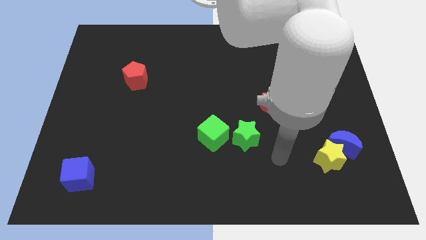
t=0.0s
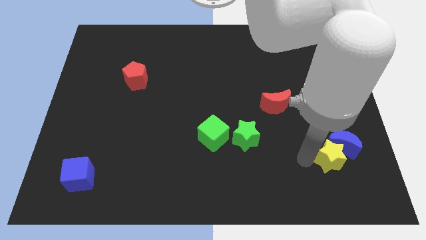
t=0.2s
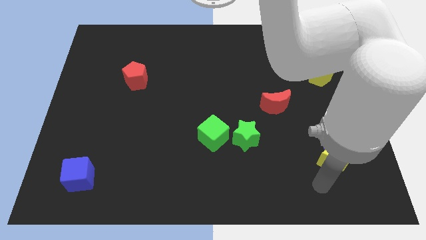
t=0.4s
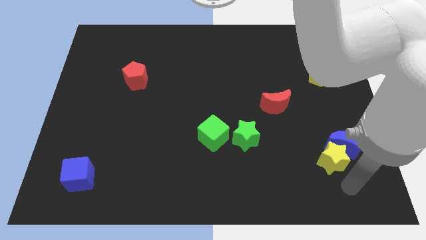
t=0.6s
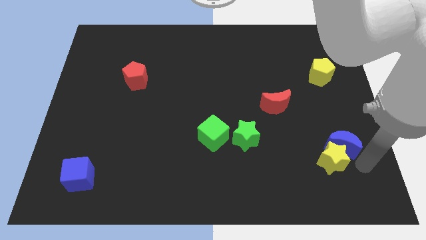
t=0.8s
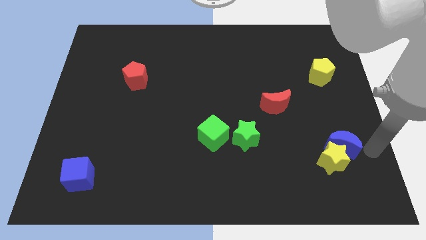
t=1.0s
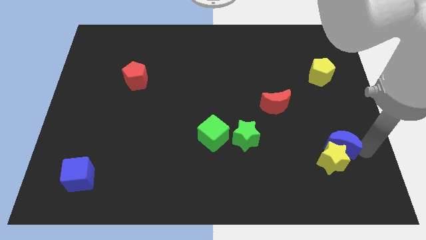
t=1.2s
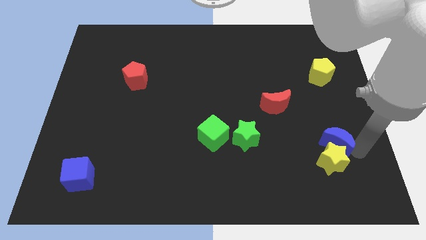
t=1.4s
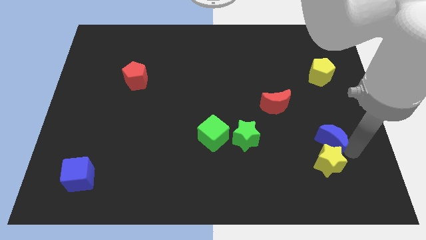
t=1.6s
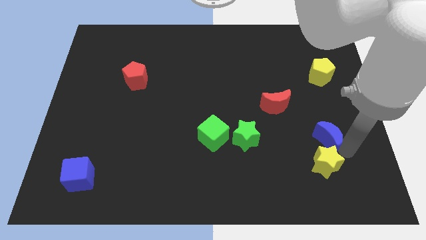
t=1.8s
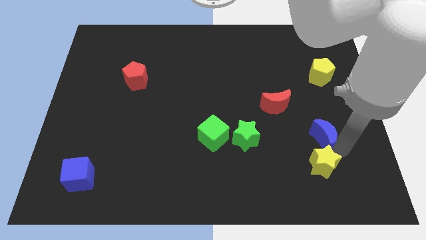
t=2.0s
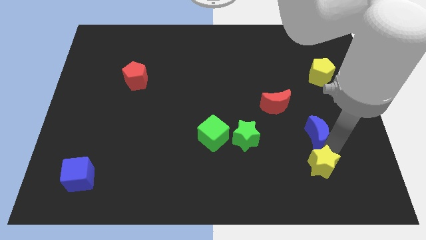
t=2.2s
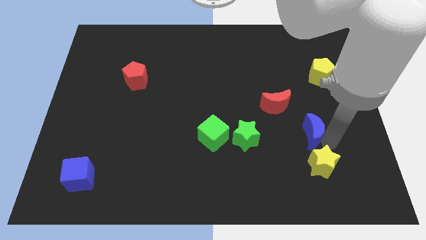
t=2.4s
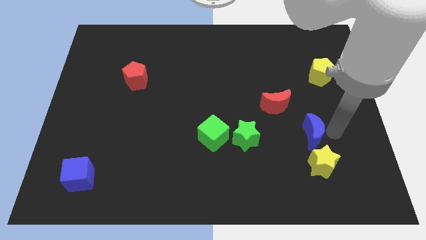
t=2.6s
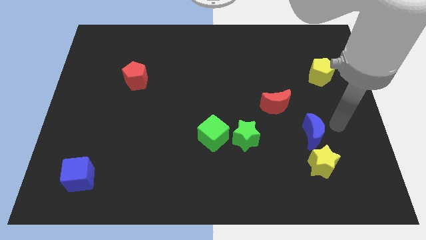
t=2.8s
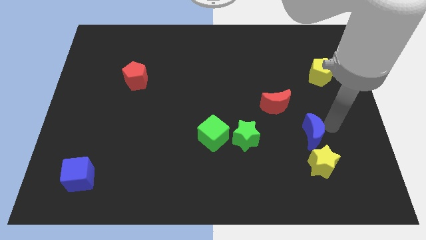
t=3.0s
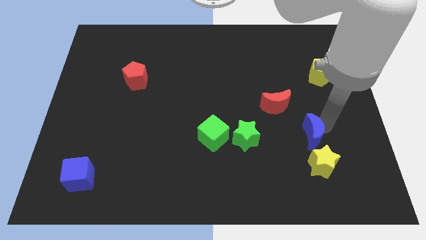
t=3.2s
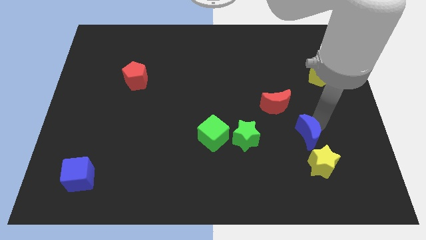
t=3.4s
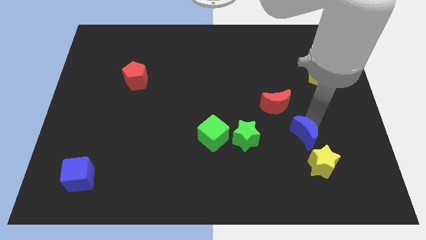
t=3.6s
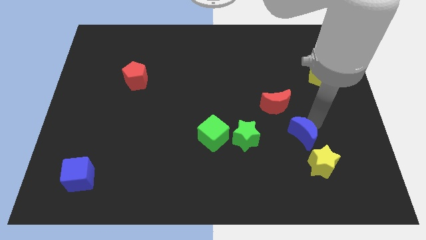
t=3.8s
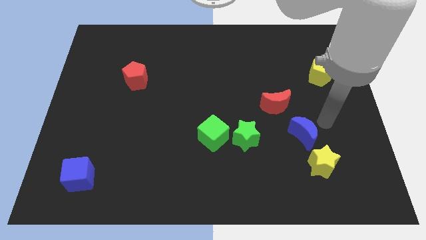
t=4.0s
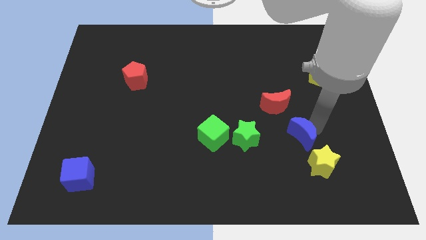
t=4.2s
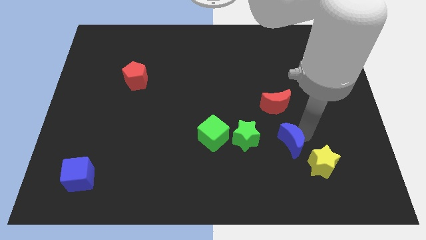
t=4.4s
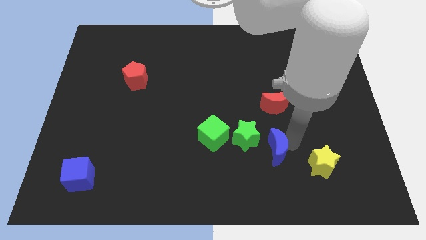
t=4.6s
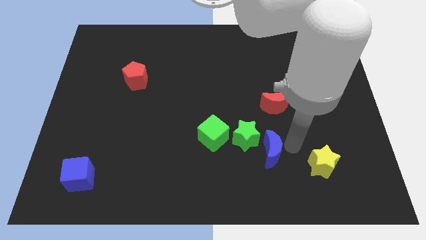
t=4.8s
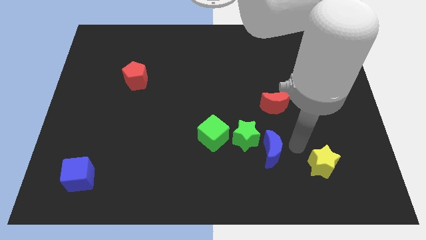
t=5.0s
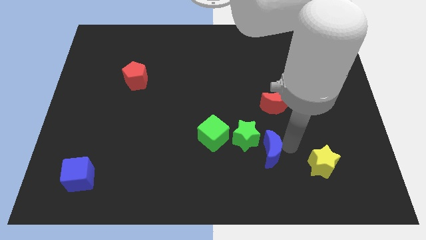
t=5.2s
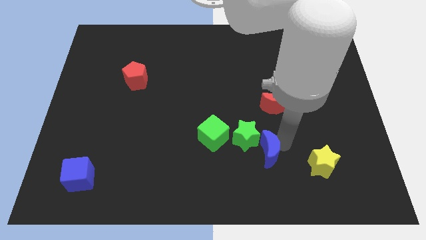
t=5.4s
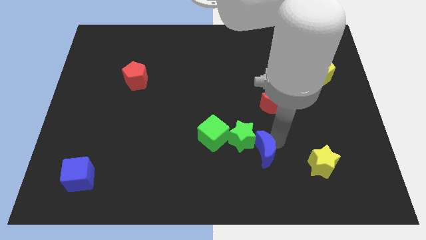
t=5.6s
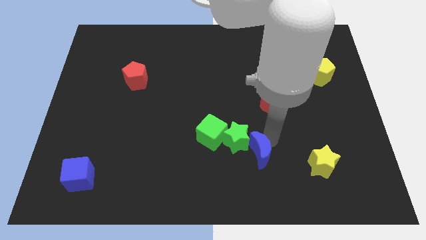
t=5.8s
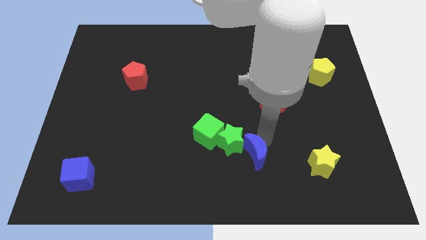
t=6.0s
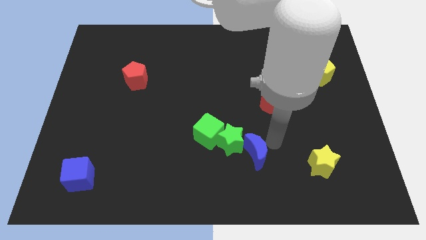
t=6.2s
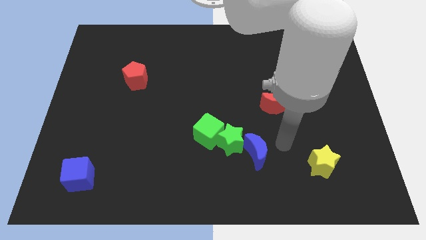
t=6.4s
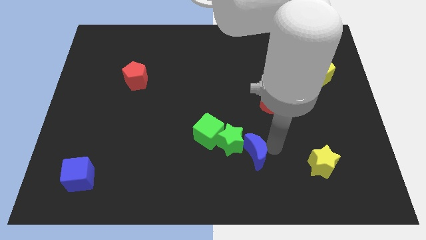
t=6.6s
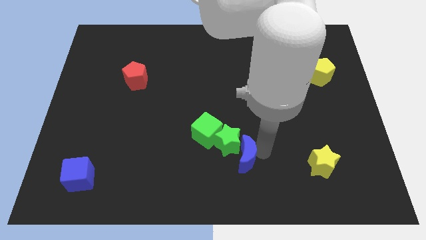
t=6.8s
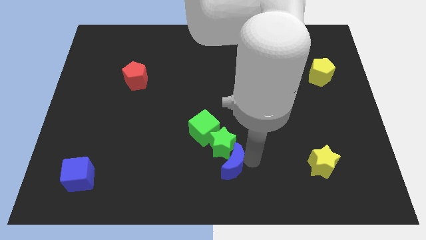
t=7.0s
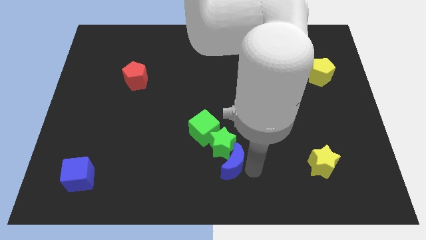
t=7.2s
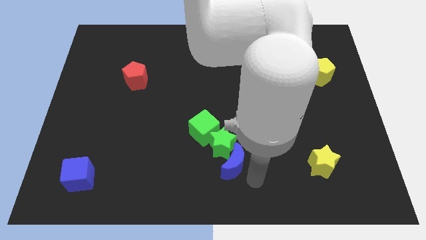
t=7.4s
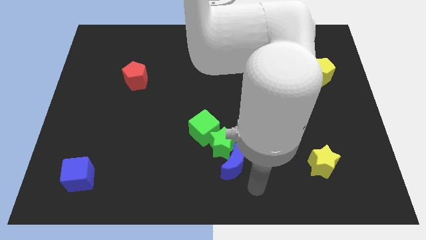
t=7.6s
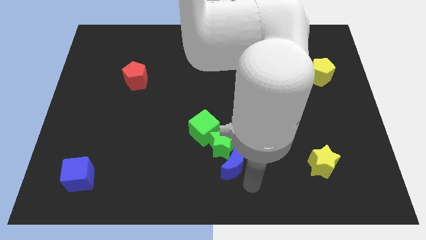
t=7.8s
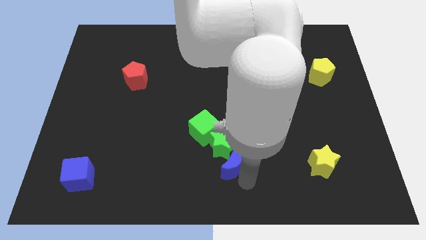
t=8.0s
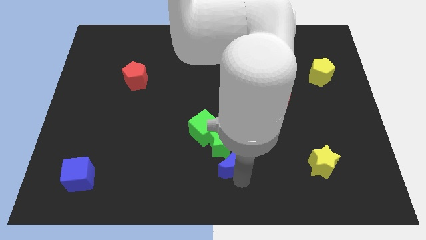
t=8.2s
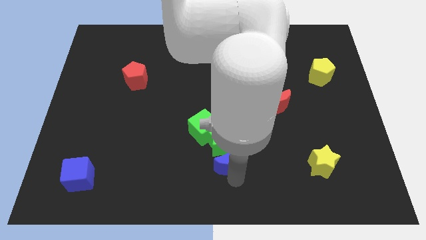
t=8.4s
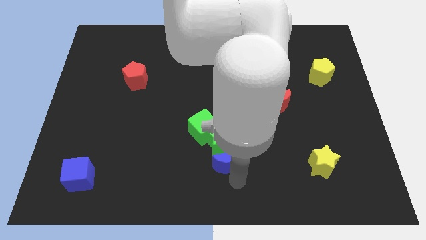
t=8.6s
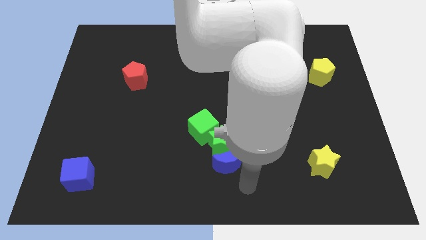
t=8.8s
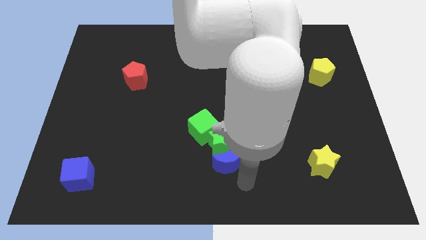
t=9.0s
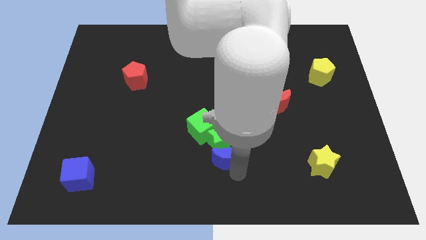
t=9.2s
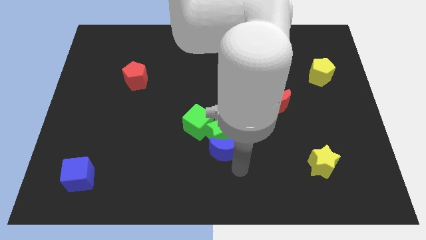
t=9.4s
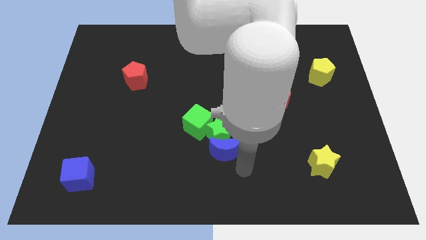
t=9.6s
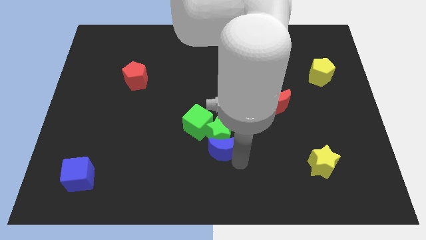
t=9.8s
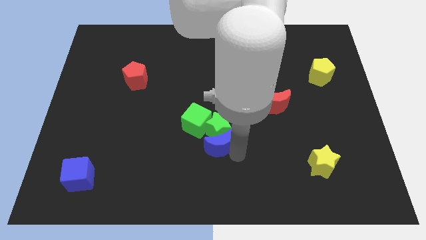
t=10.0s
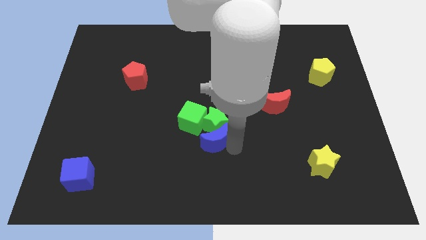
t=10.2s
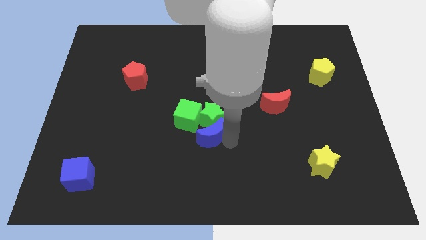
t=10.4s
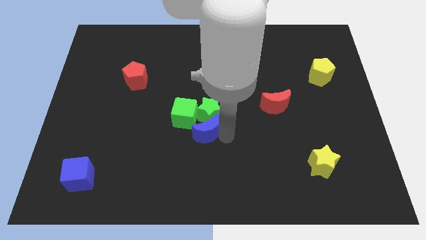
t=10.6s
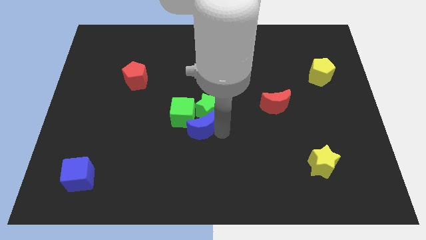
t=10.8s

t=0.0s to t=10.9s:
slide the blue moon towards the green cube

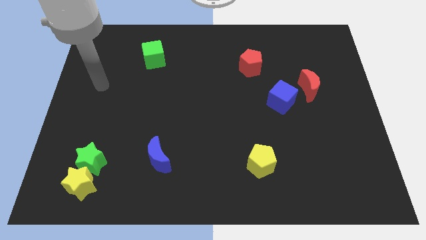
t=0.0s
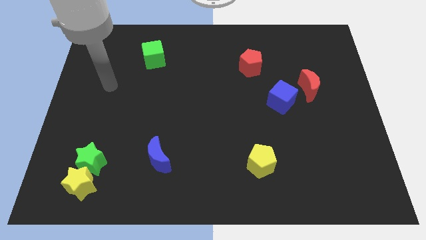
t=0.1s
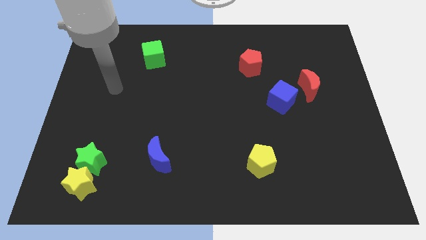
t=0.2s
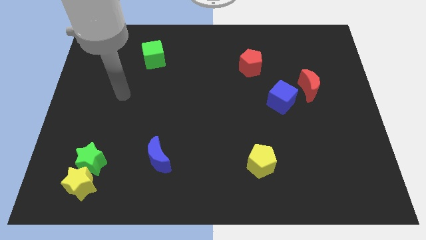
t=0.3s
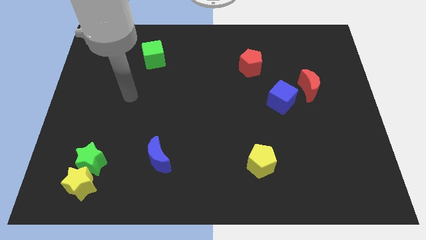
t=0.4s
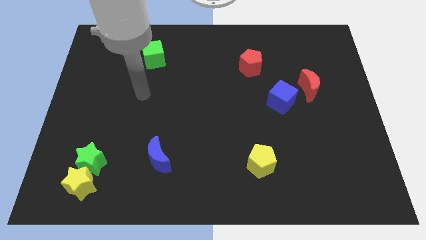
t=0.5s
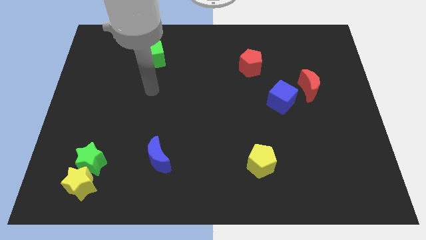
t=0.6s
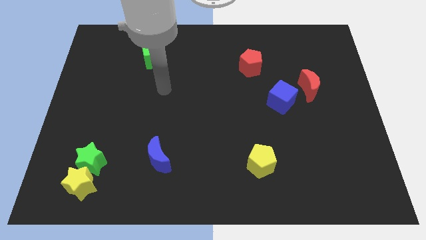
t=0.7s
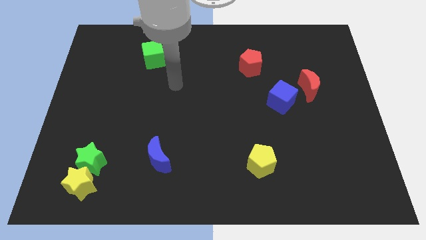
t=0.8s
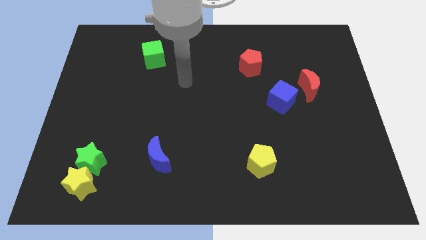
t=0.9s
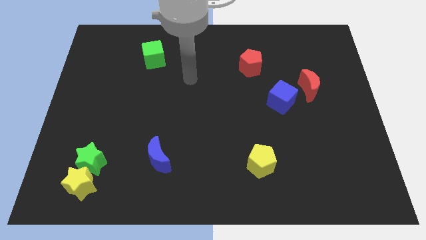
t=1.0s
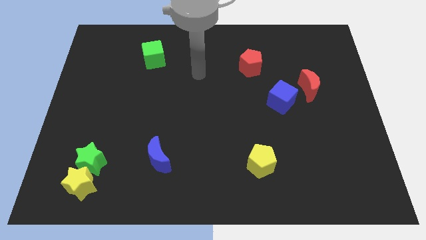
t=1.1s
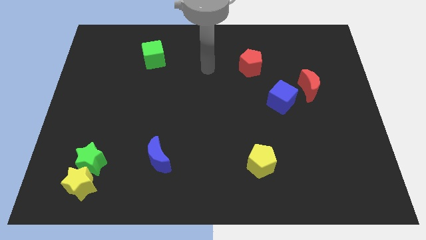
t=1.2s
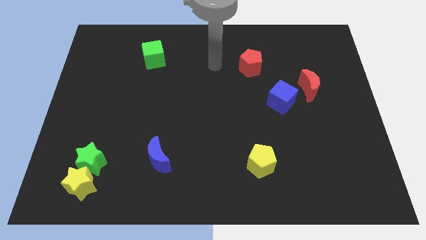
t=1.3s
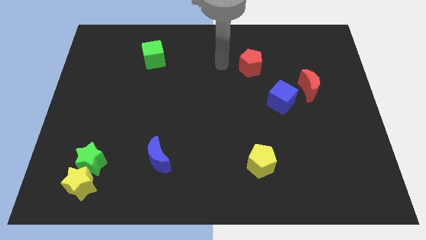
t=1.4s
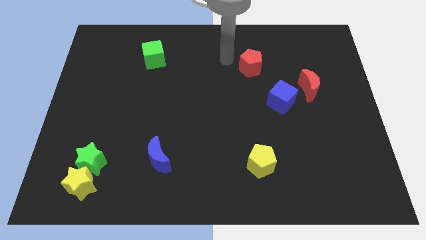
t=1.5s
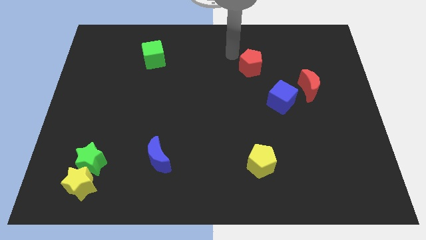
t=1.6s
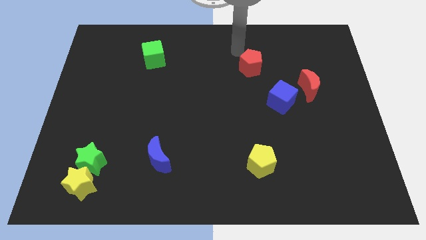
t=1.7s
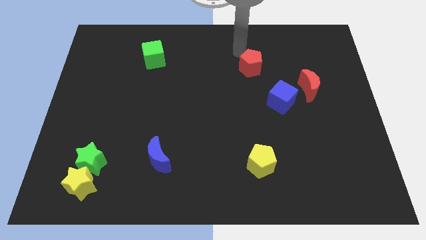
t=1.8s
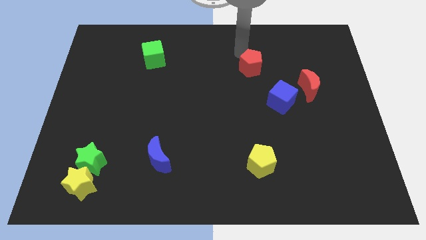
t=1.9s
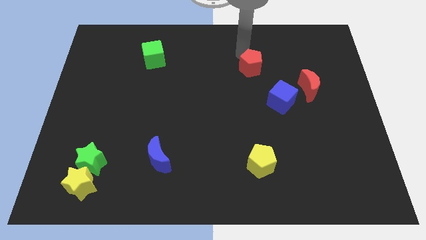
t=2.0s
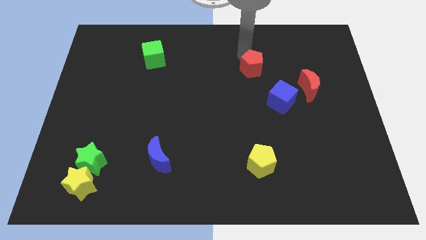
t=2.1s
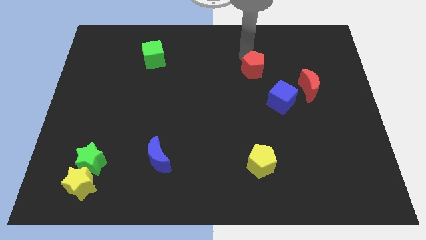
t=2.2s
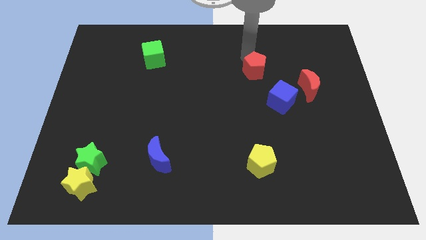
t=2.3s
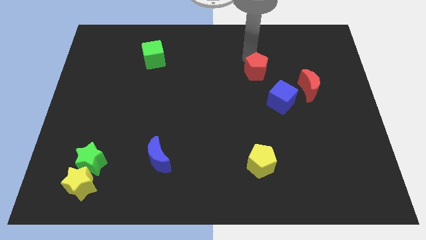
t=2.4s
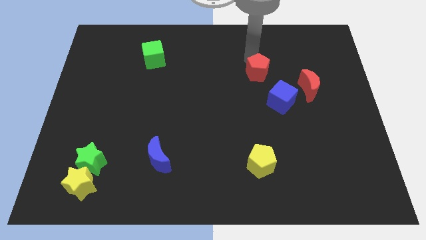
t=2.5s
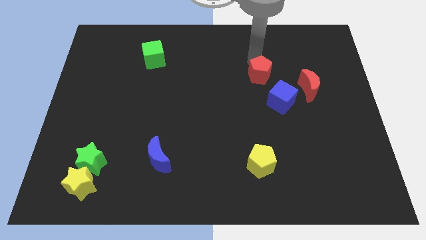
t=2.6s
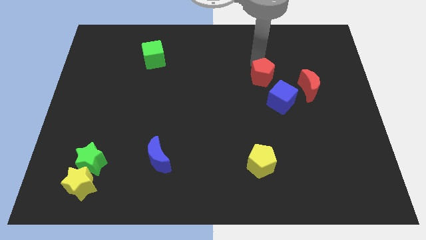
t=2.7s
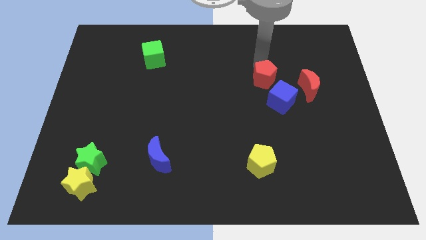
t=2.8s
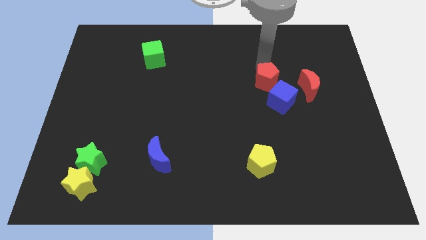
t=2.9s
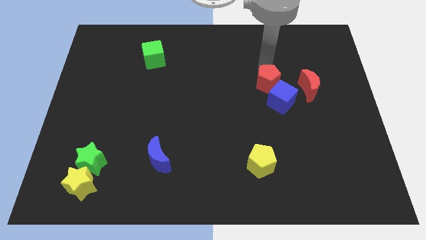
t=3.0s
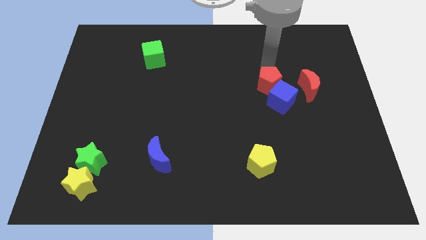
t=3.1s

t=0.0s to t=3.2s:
push the red pentagon towards the blue cube
